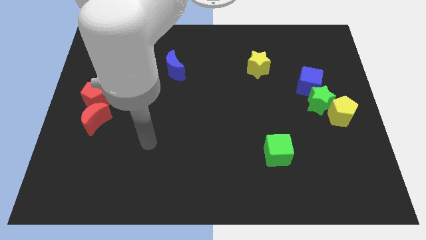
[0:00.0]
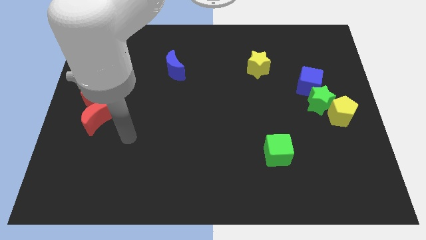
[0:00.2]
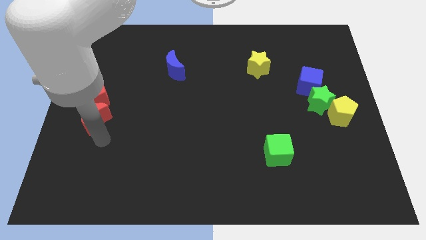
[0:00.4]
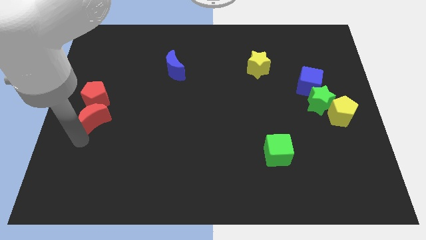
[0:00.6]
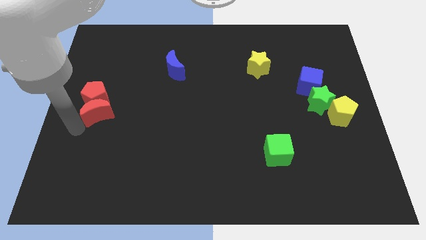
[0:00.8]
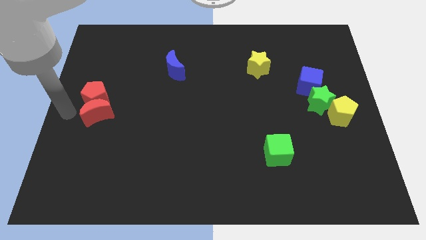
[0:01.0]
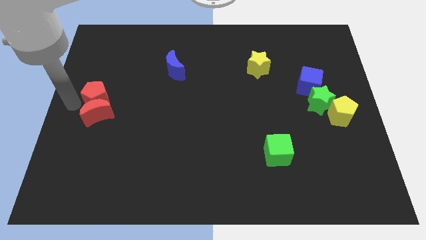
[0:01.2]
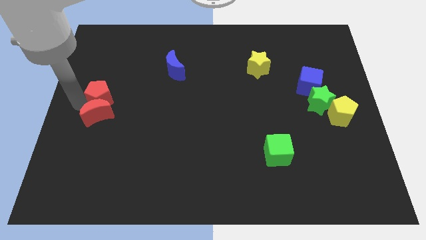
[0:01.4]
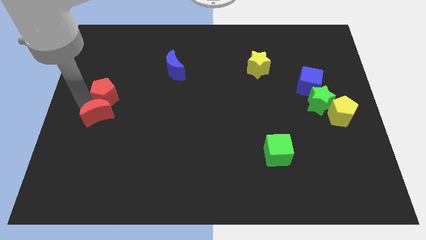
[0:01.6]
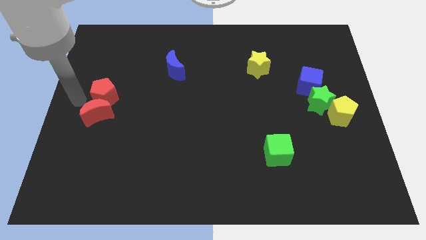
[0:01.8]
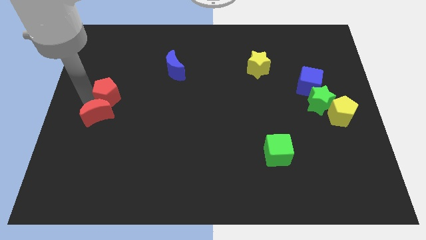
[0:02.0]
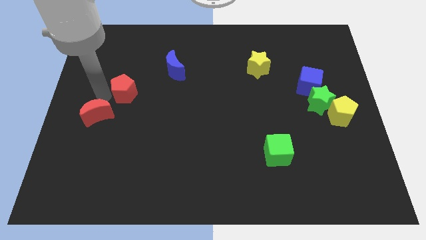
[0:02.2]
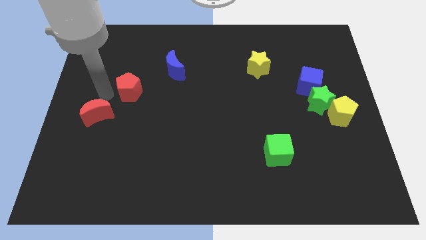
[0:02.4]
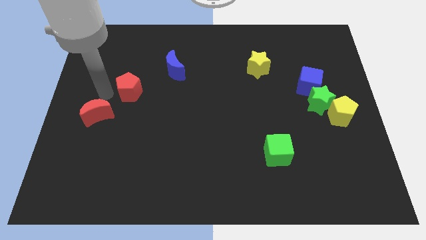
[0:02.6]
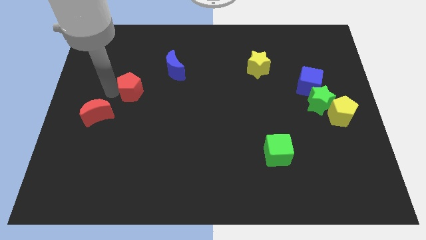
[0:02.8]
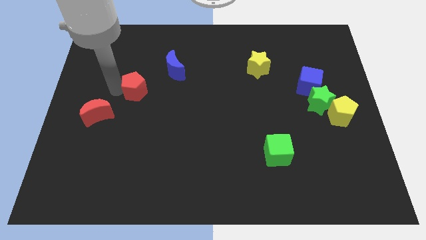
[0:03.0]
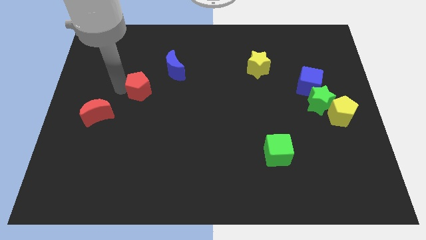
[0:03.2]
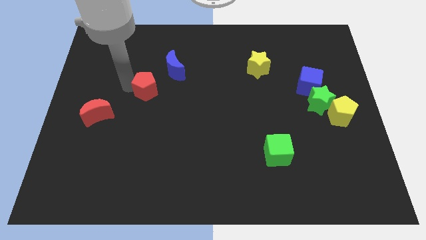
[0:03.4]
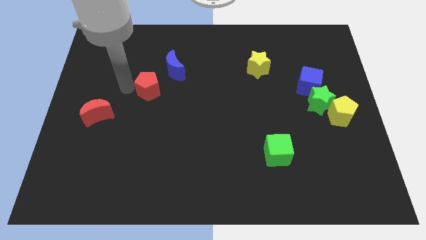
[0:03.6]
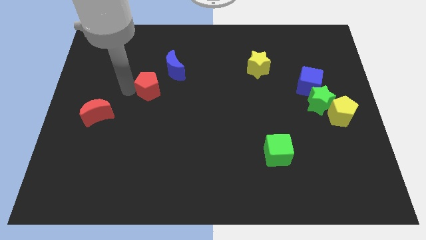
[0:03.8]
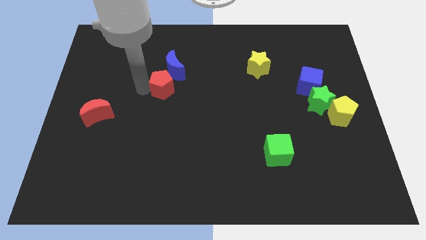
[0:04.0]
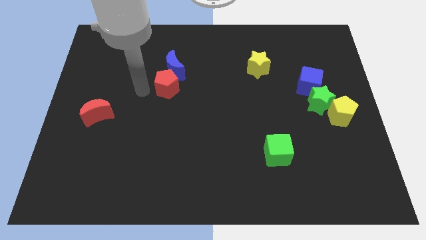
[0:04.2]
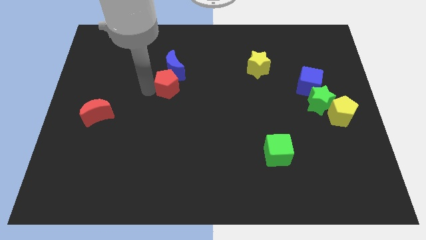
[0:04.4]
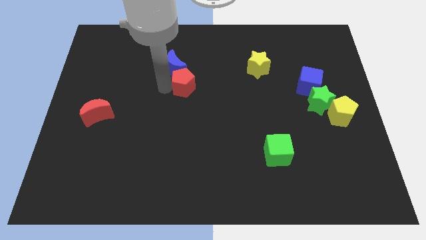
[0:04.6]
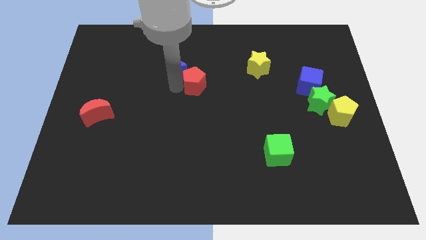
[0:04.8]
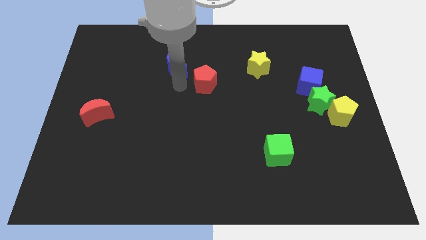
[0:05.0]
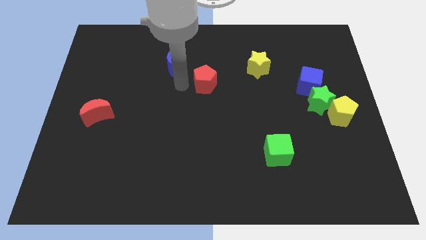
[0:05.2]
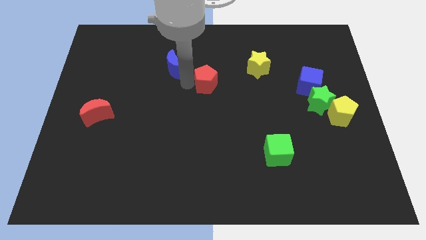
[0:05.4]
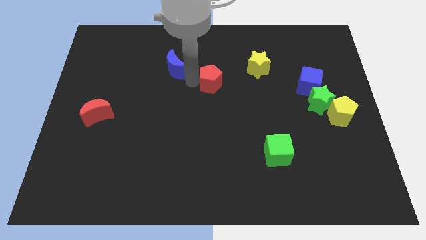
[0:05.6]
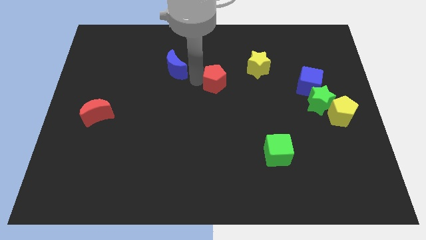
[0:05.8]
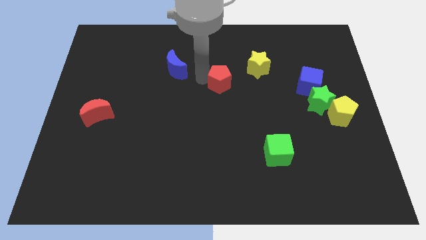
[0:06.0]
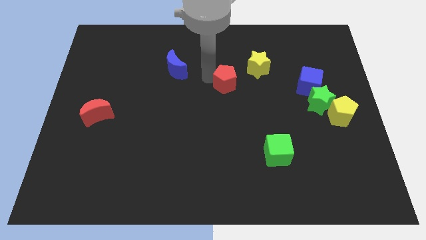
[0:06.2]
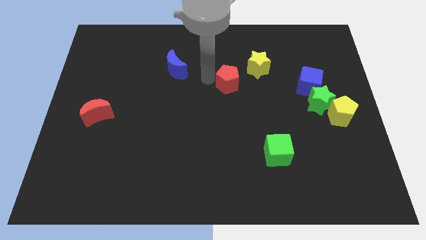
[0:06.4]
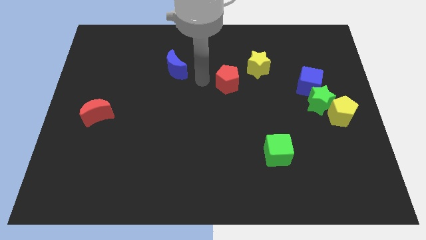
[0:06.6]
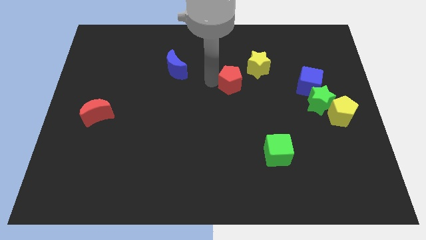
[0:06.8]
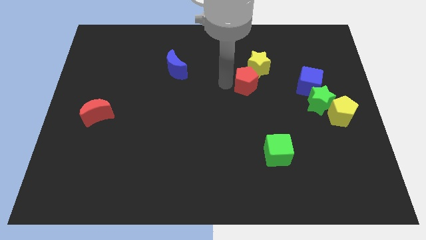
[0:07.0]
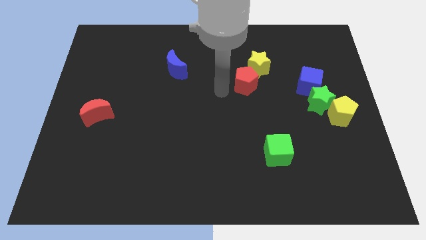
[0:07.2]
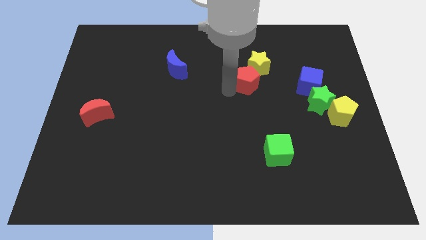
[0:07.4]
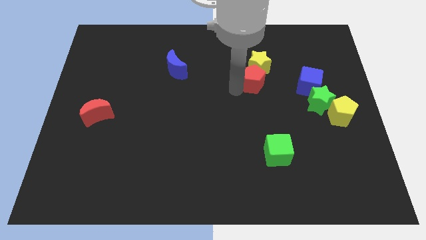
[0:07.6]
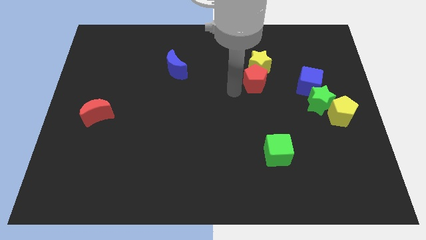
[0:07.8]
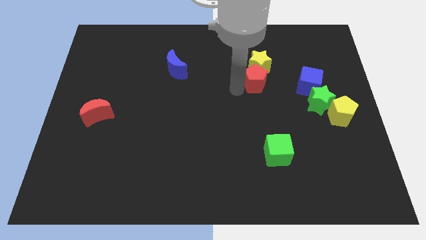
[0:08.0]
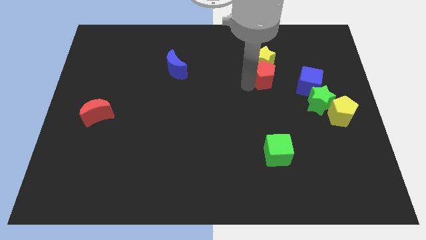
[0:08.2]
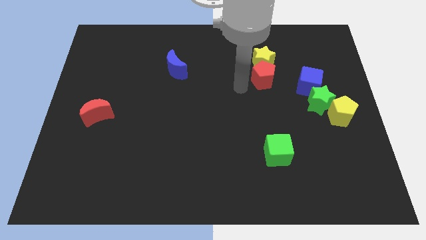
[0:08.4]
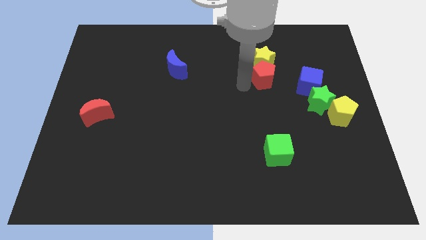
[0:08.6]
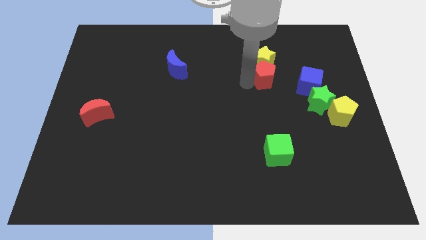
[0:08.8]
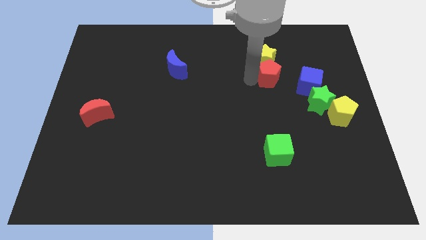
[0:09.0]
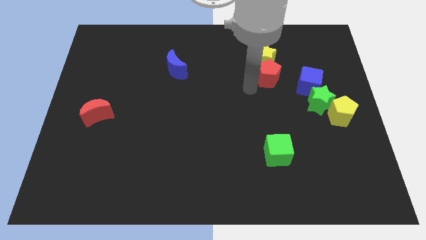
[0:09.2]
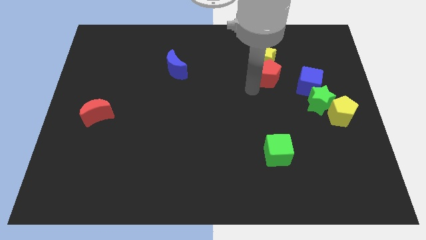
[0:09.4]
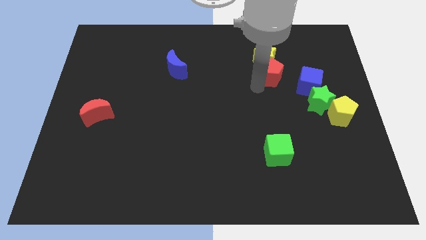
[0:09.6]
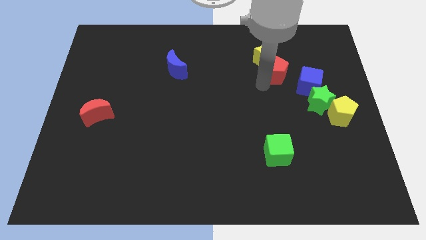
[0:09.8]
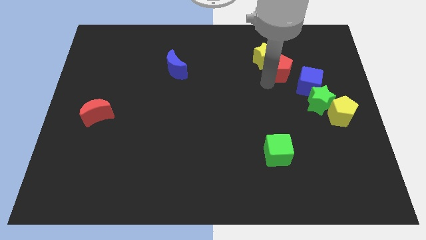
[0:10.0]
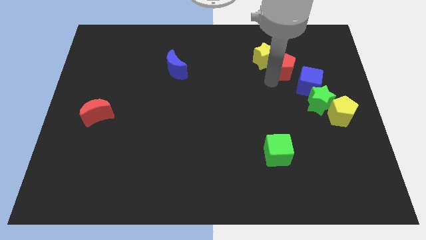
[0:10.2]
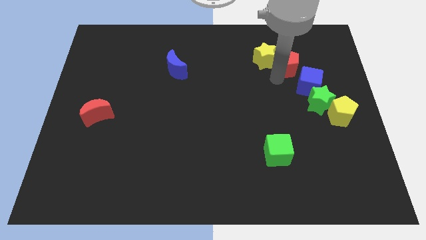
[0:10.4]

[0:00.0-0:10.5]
put the red pentagon to the top side of the blue cube

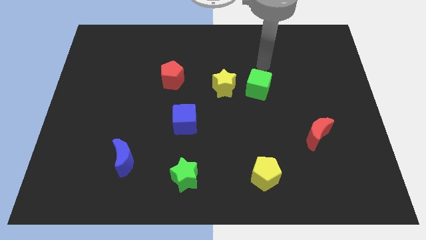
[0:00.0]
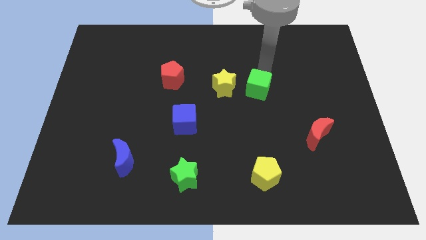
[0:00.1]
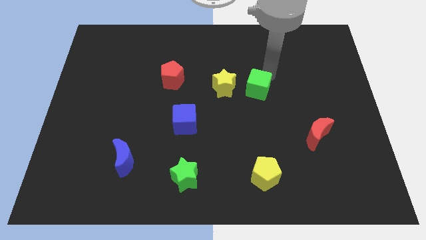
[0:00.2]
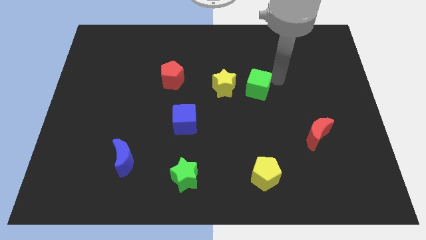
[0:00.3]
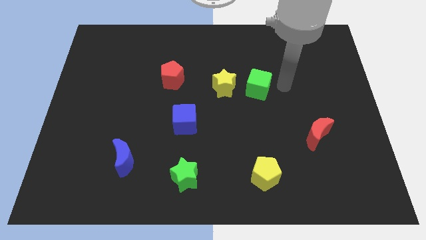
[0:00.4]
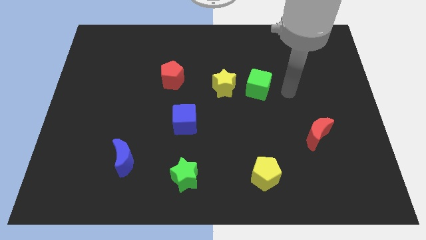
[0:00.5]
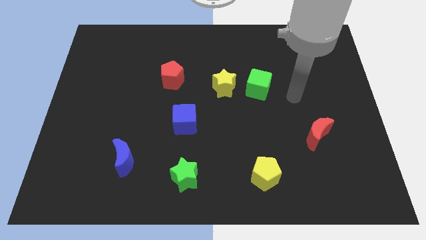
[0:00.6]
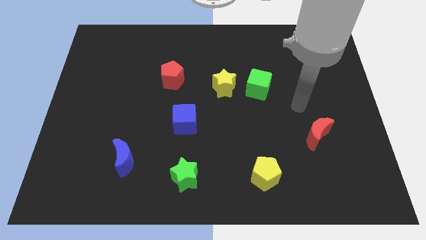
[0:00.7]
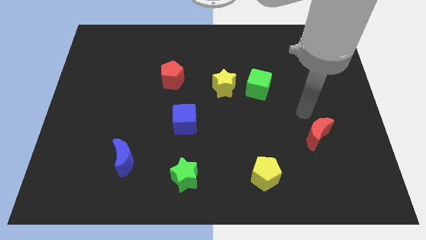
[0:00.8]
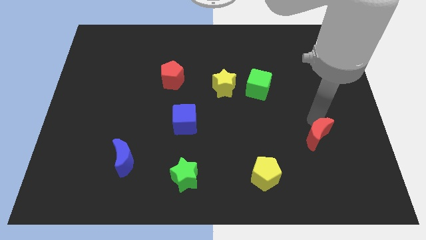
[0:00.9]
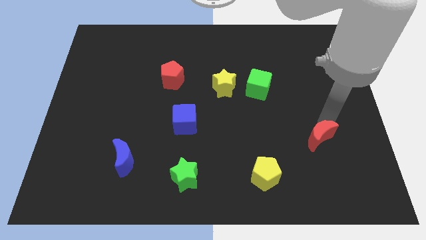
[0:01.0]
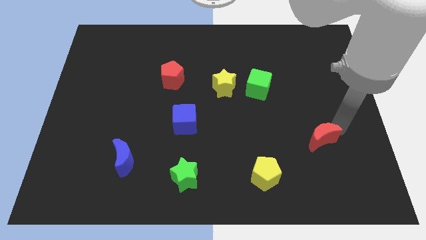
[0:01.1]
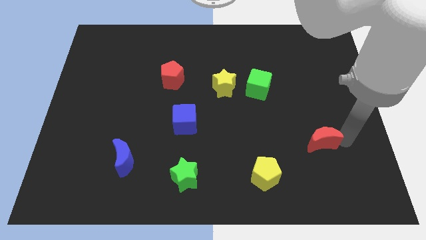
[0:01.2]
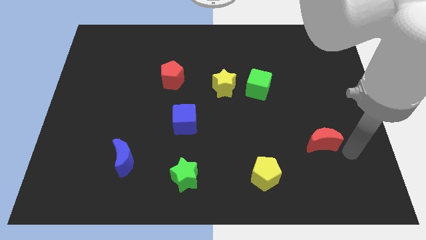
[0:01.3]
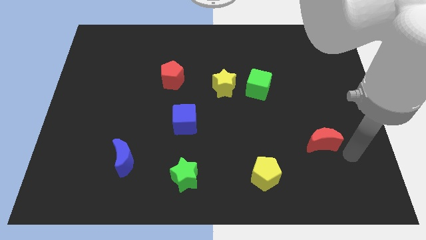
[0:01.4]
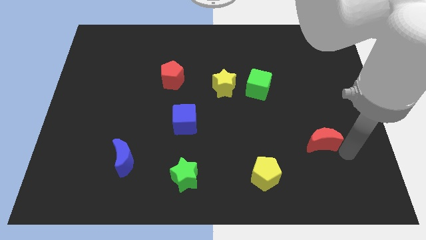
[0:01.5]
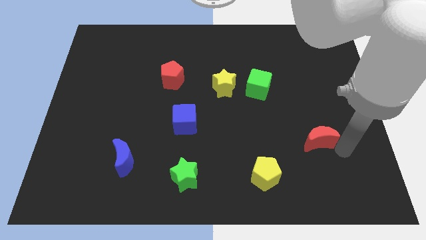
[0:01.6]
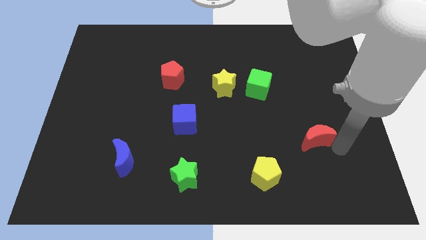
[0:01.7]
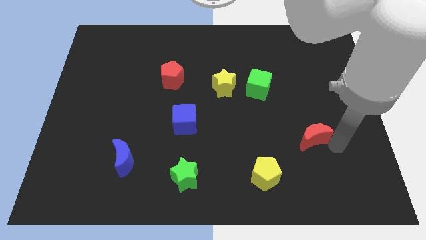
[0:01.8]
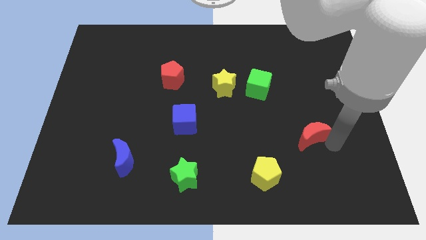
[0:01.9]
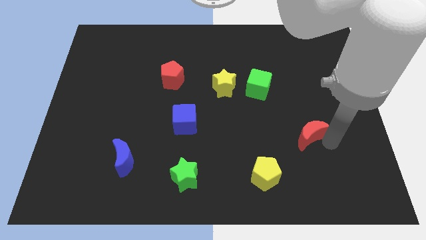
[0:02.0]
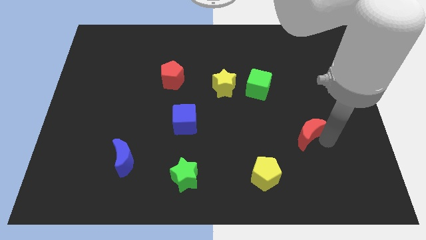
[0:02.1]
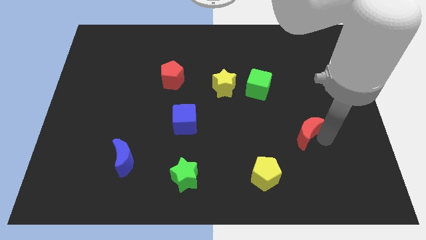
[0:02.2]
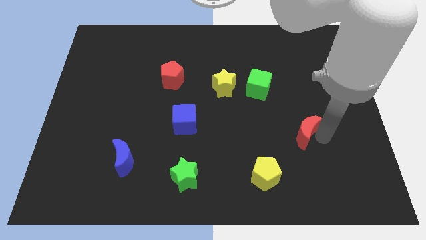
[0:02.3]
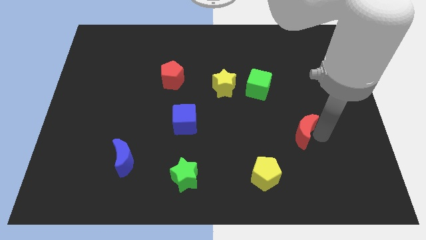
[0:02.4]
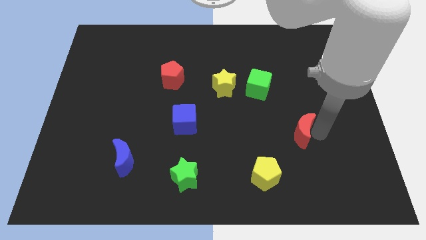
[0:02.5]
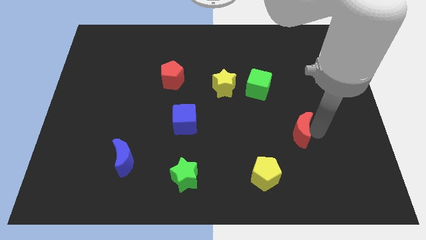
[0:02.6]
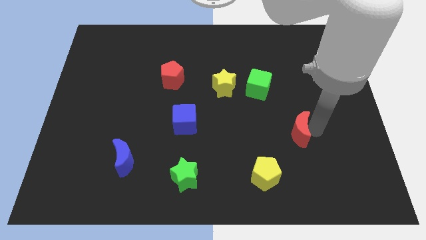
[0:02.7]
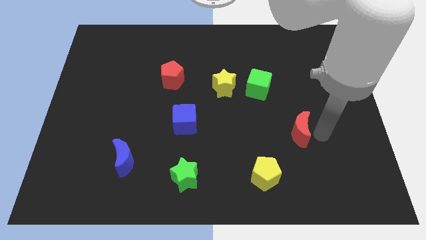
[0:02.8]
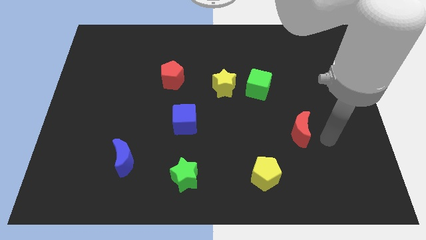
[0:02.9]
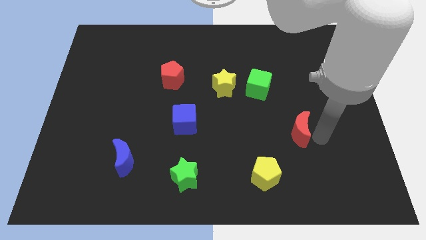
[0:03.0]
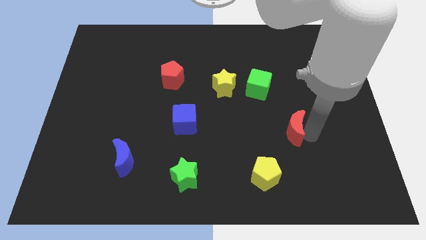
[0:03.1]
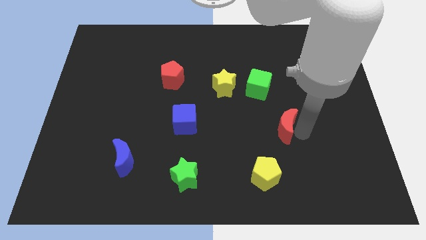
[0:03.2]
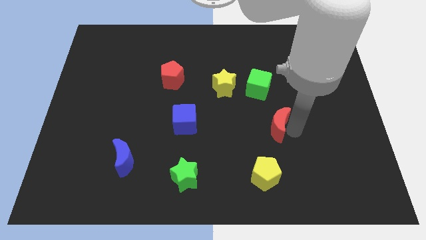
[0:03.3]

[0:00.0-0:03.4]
put the red moon to the bottom side of the green cube
